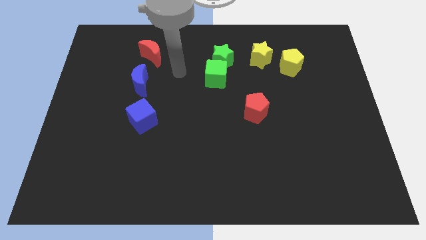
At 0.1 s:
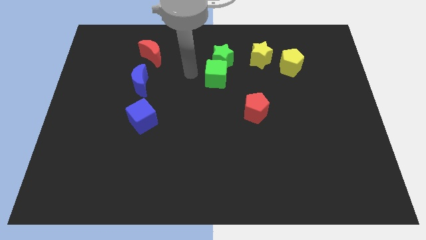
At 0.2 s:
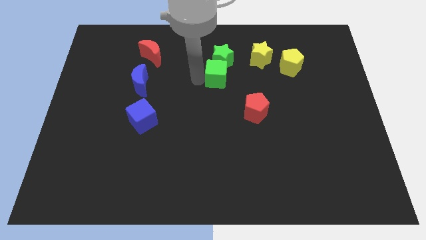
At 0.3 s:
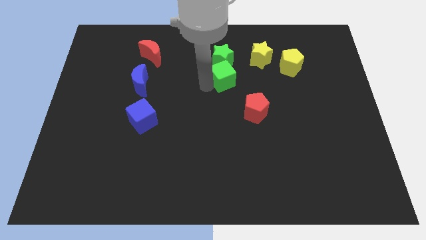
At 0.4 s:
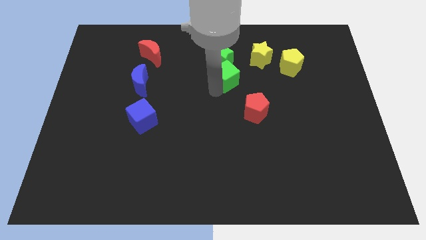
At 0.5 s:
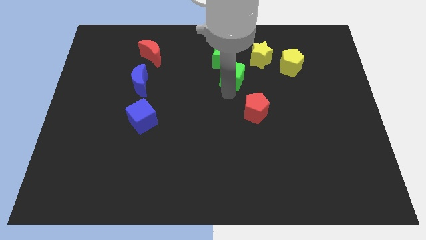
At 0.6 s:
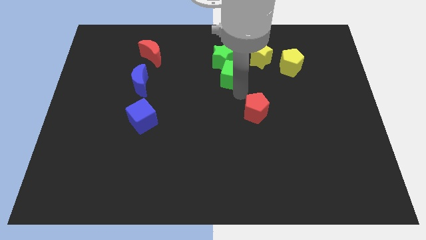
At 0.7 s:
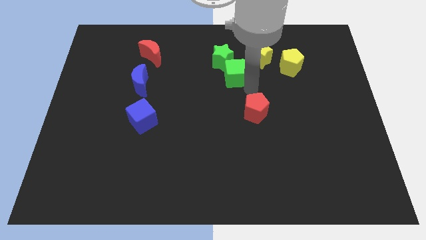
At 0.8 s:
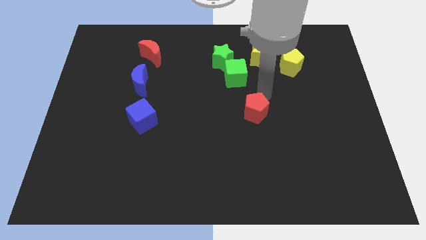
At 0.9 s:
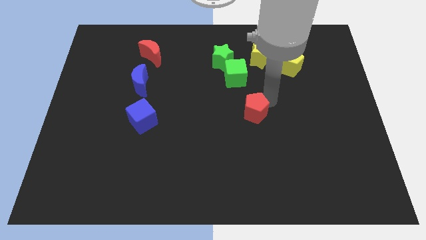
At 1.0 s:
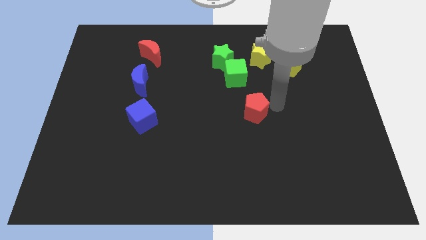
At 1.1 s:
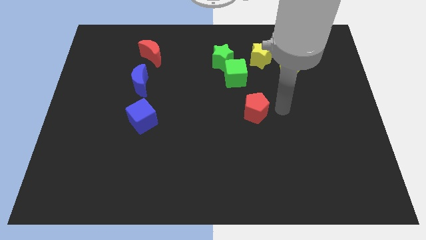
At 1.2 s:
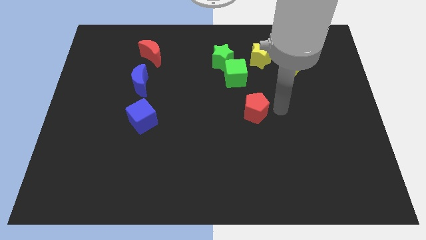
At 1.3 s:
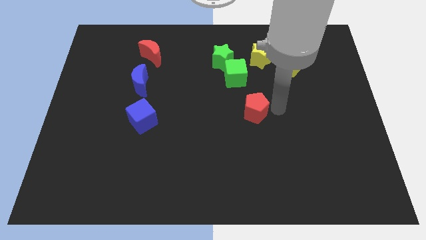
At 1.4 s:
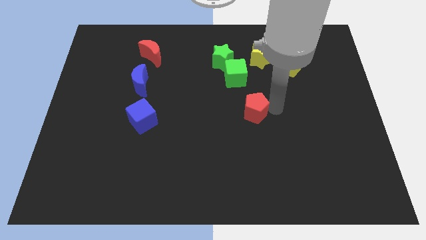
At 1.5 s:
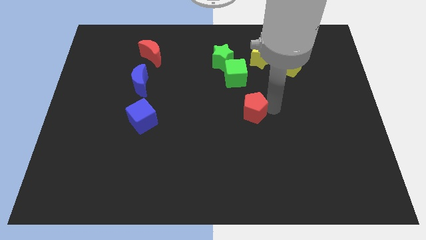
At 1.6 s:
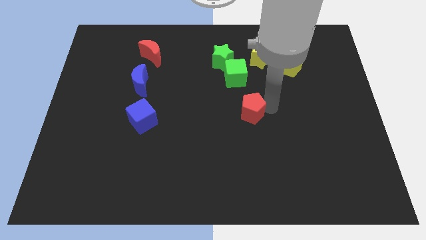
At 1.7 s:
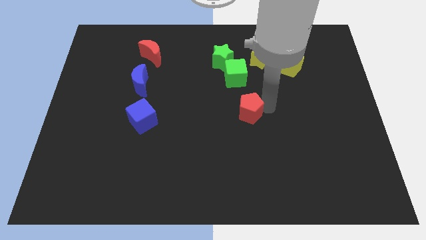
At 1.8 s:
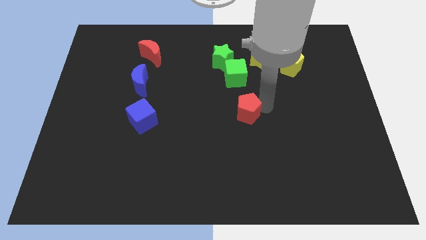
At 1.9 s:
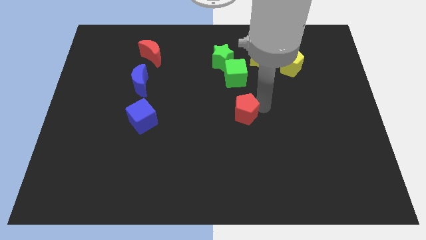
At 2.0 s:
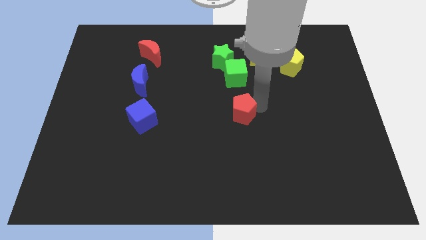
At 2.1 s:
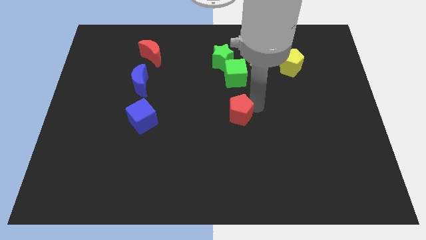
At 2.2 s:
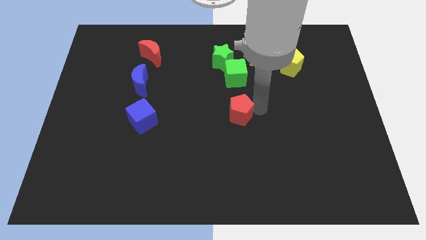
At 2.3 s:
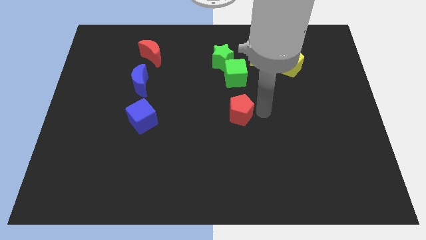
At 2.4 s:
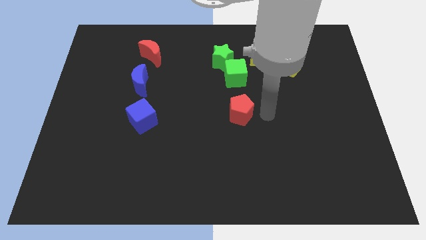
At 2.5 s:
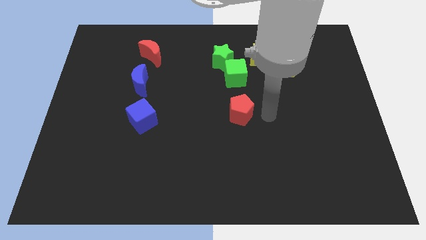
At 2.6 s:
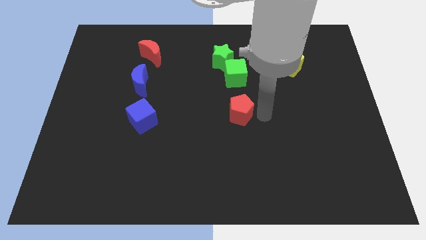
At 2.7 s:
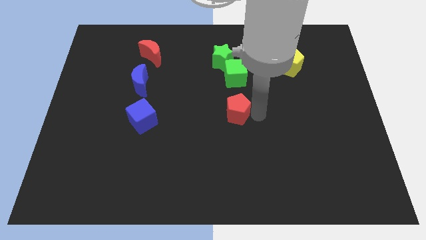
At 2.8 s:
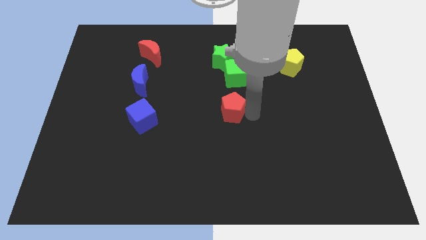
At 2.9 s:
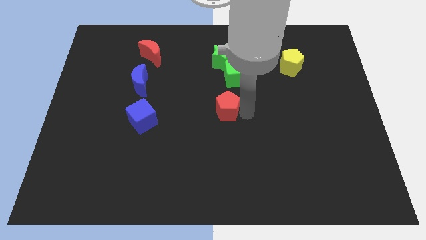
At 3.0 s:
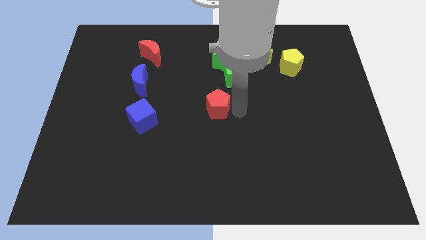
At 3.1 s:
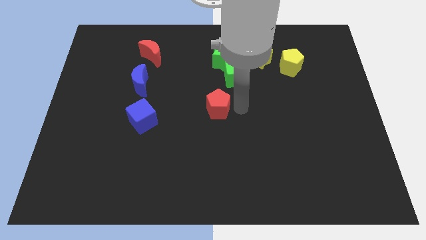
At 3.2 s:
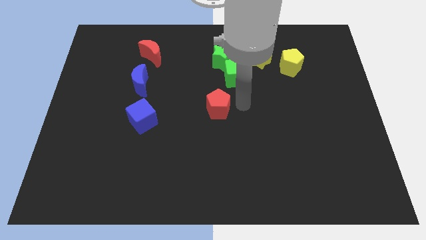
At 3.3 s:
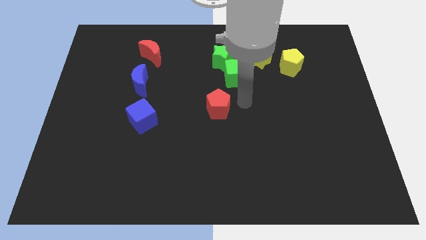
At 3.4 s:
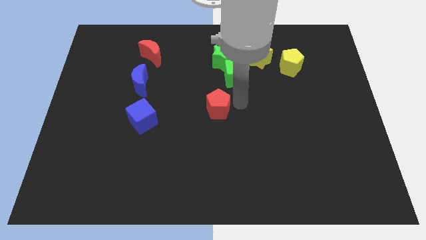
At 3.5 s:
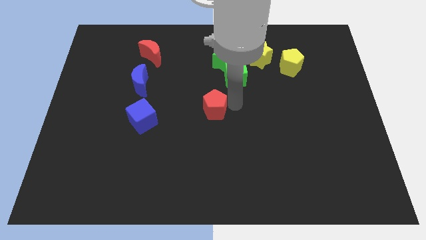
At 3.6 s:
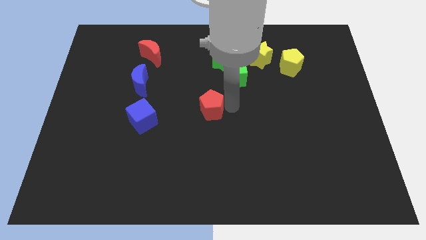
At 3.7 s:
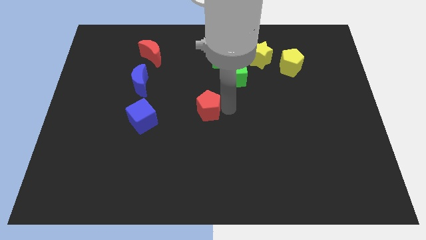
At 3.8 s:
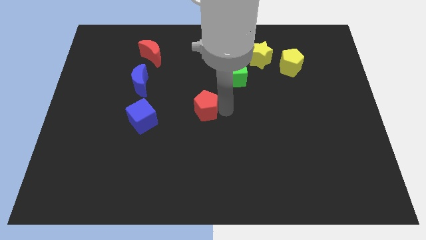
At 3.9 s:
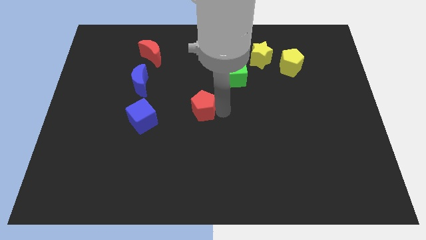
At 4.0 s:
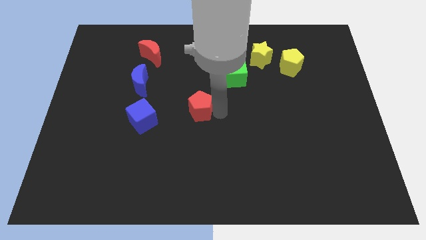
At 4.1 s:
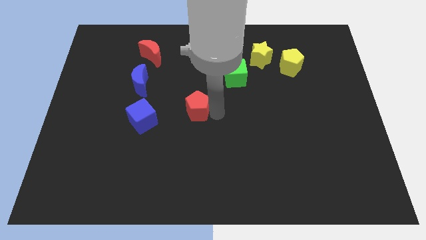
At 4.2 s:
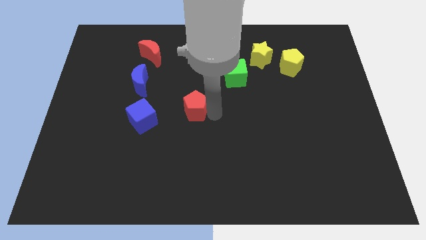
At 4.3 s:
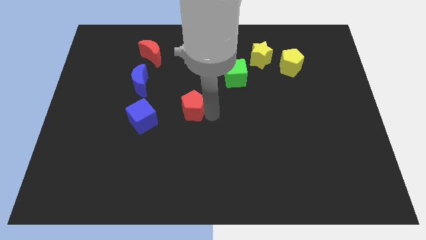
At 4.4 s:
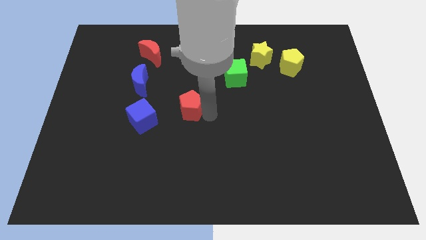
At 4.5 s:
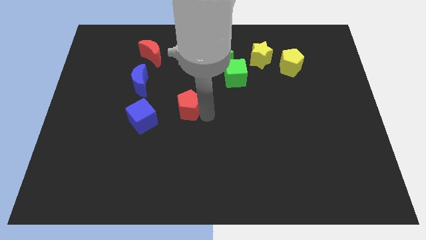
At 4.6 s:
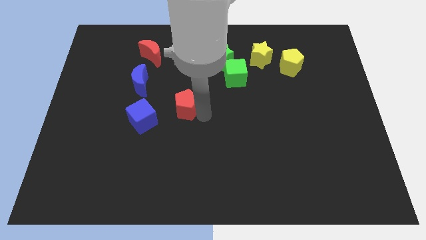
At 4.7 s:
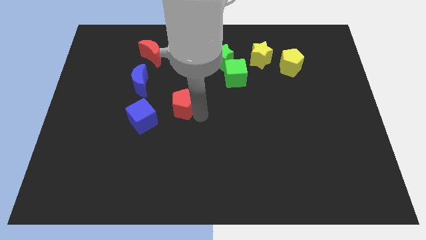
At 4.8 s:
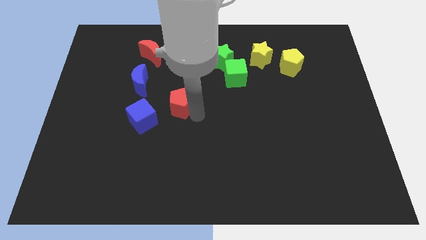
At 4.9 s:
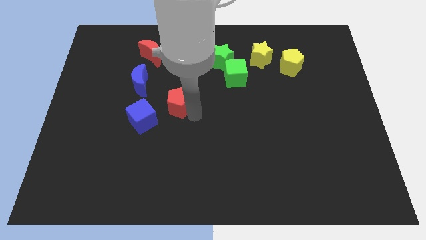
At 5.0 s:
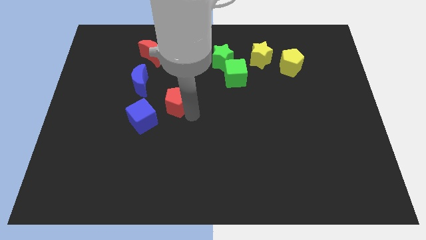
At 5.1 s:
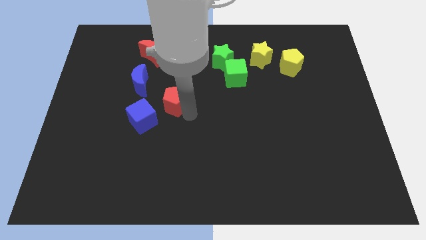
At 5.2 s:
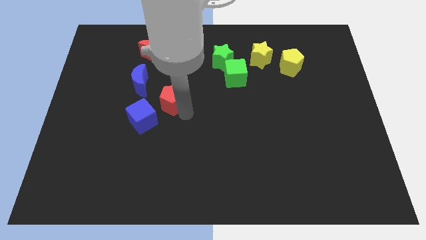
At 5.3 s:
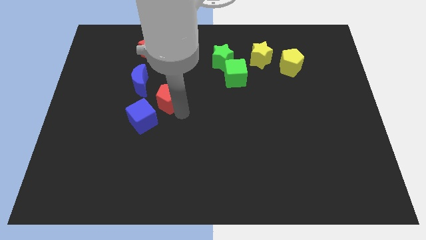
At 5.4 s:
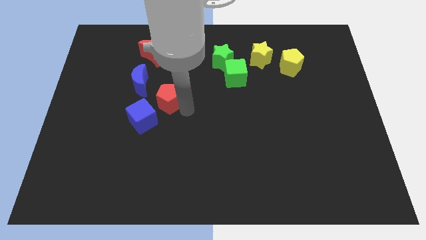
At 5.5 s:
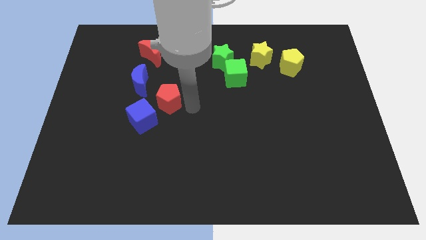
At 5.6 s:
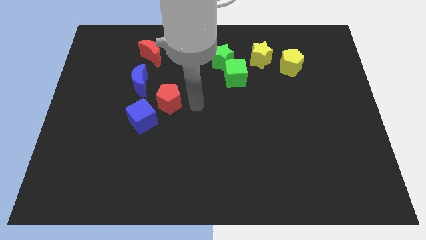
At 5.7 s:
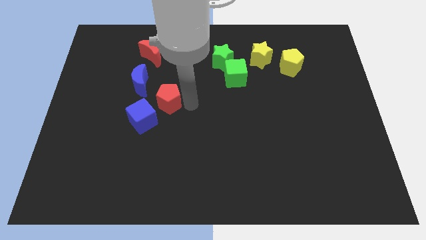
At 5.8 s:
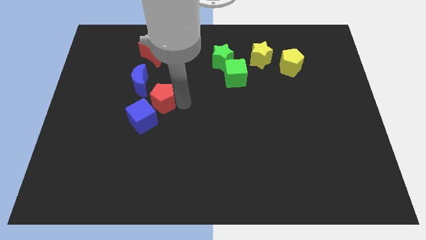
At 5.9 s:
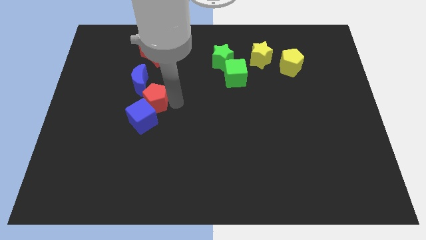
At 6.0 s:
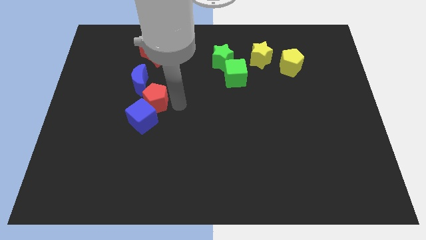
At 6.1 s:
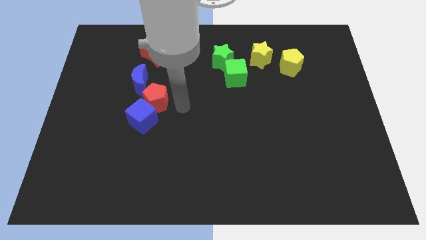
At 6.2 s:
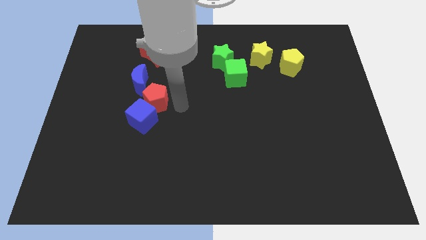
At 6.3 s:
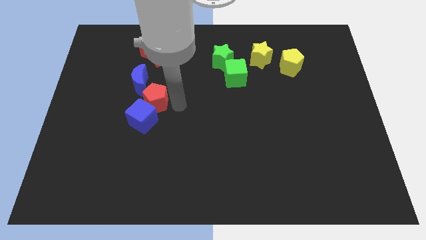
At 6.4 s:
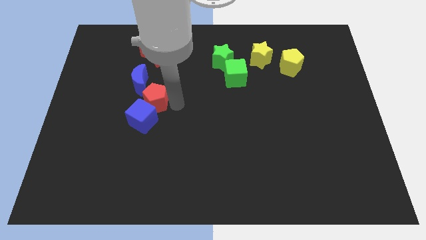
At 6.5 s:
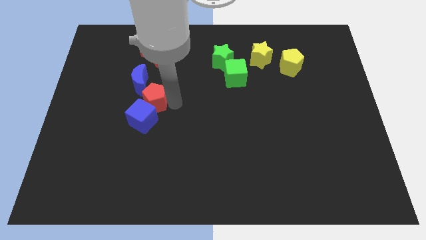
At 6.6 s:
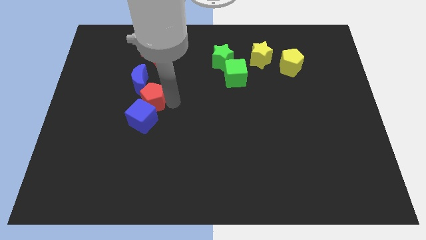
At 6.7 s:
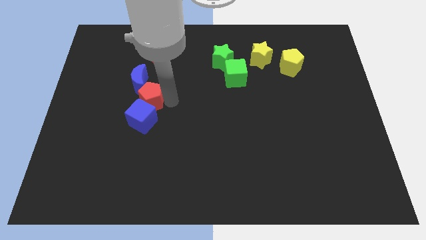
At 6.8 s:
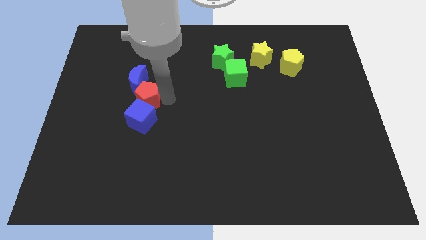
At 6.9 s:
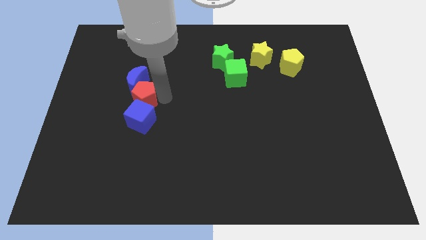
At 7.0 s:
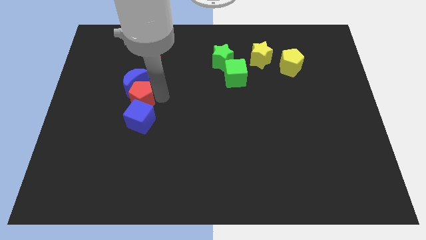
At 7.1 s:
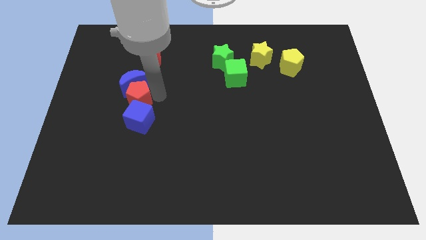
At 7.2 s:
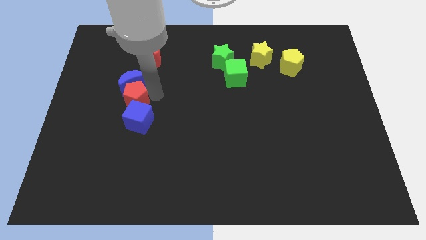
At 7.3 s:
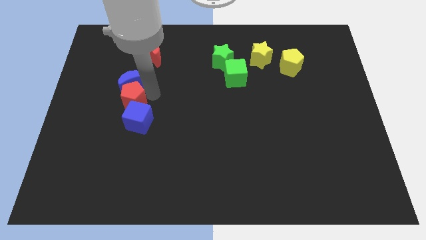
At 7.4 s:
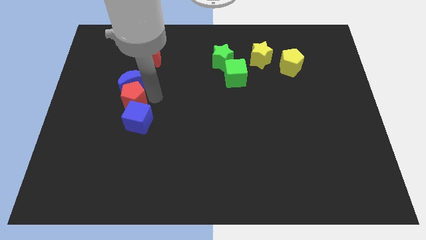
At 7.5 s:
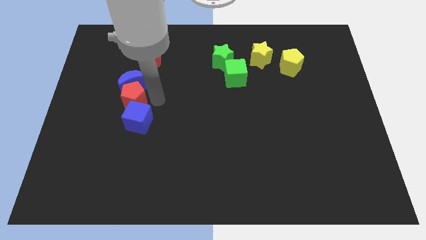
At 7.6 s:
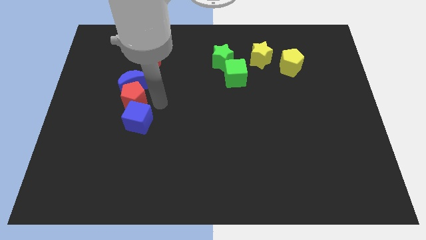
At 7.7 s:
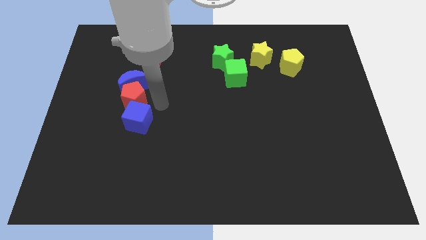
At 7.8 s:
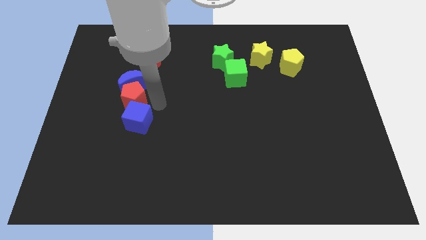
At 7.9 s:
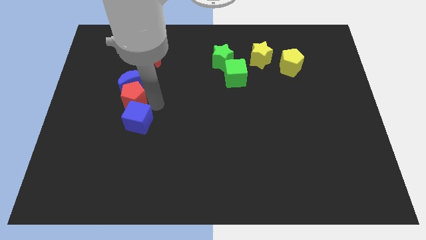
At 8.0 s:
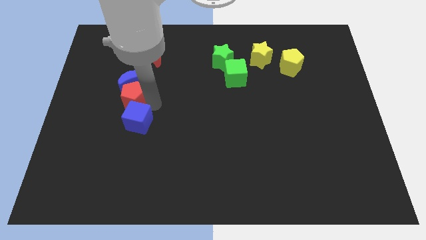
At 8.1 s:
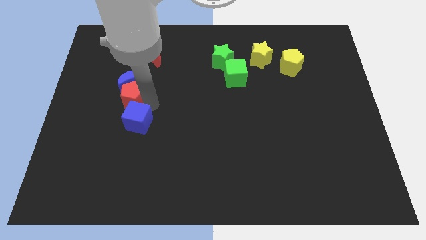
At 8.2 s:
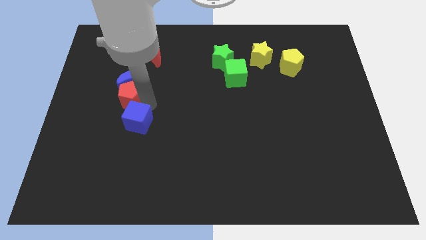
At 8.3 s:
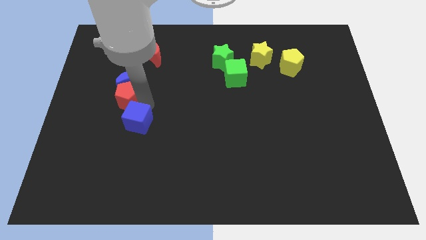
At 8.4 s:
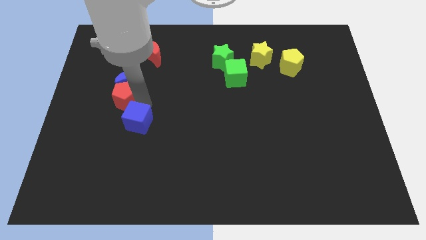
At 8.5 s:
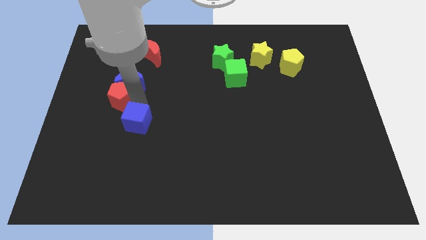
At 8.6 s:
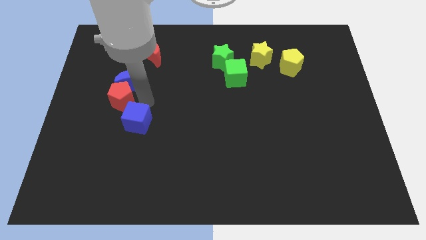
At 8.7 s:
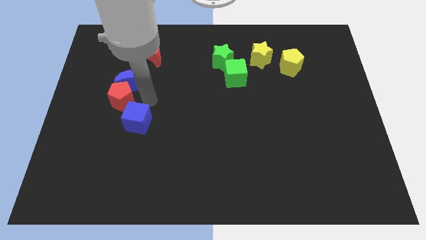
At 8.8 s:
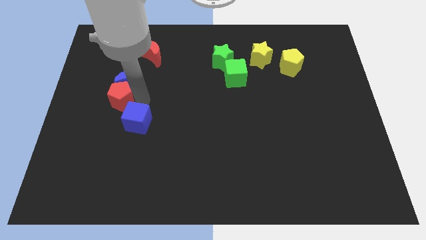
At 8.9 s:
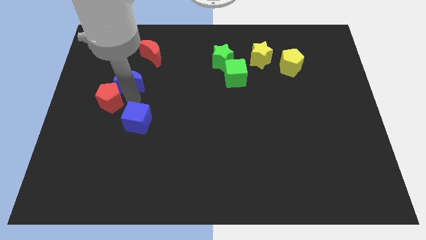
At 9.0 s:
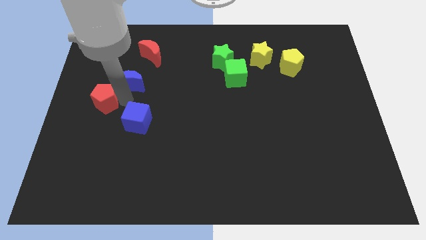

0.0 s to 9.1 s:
move the red pentagon to the center left
